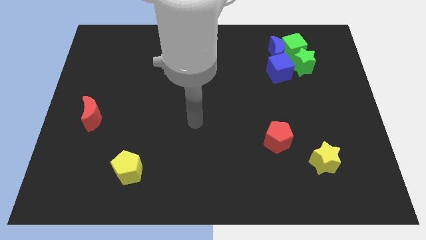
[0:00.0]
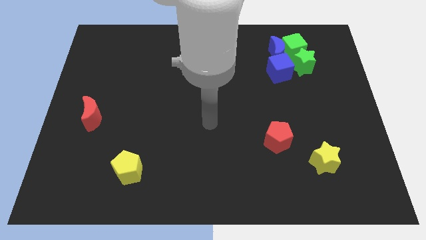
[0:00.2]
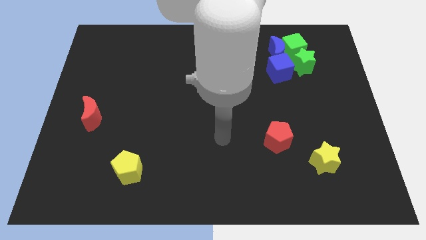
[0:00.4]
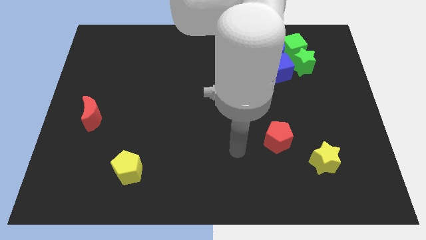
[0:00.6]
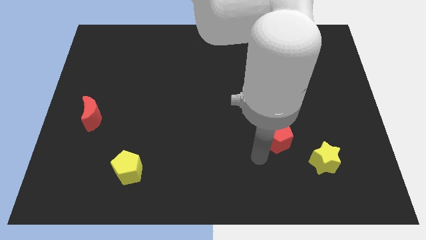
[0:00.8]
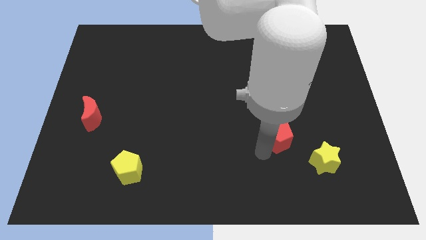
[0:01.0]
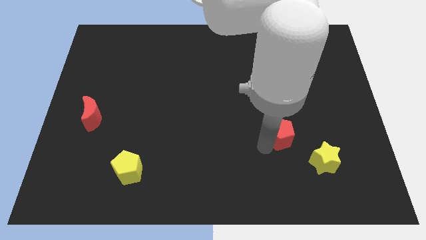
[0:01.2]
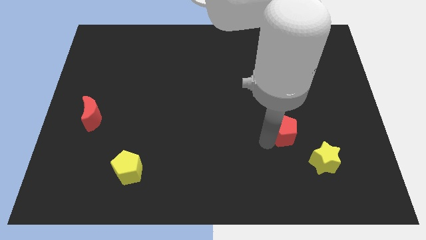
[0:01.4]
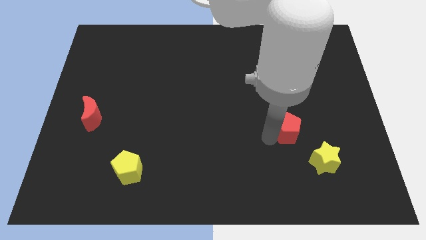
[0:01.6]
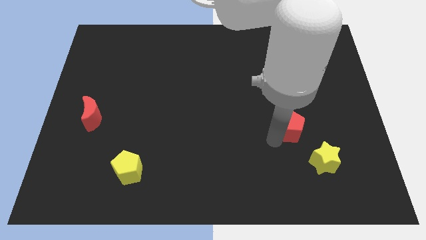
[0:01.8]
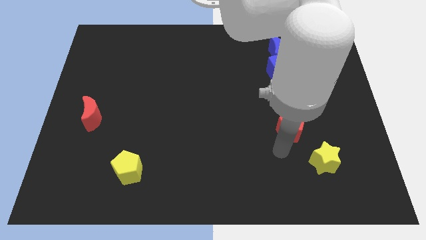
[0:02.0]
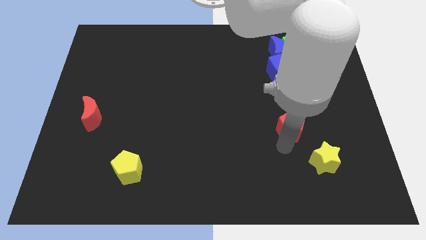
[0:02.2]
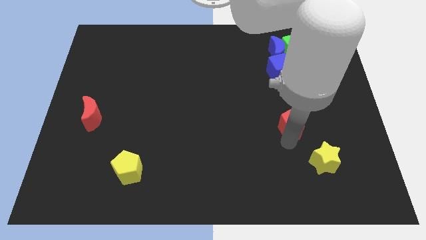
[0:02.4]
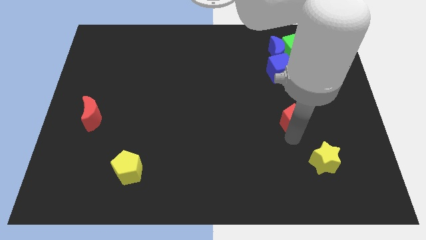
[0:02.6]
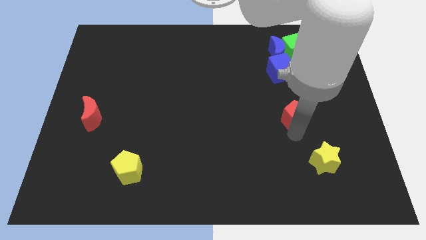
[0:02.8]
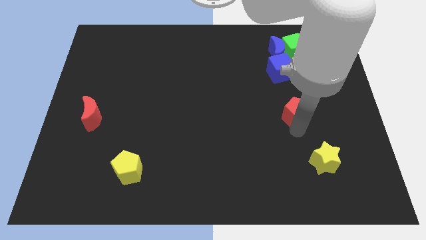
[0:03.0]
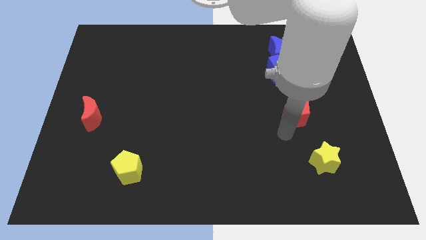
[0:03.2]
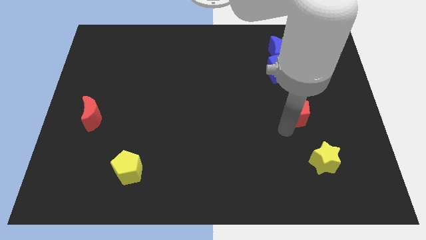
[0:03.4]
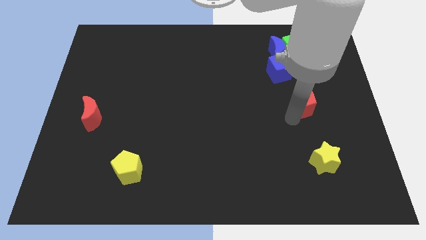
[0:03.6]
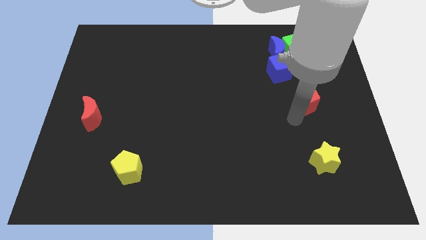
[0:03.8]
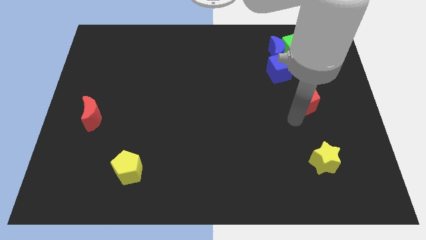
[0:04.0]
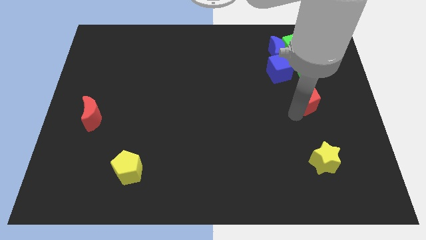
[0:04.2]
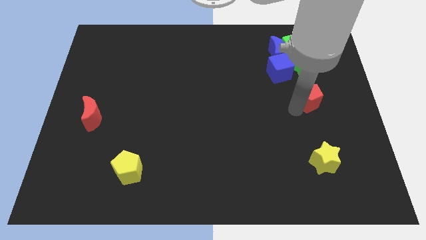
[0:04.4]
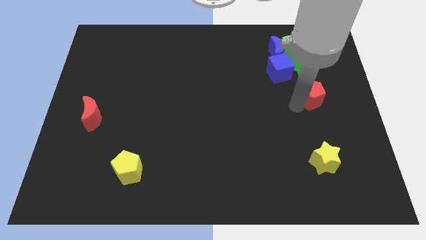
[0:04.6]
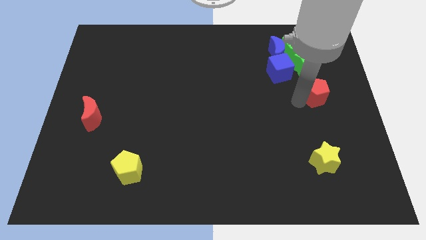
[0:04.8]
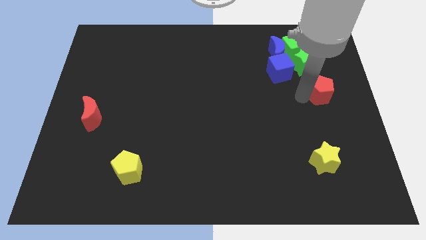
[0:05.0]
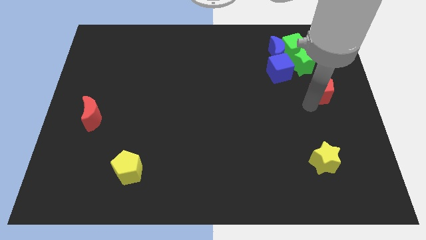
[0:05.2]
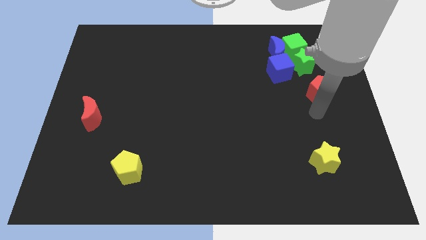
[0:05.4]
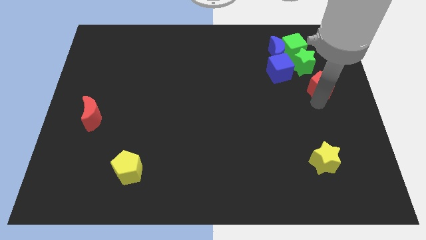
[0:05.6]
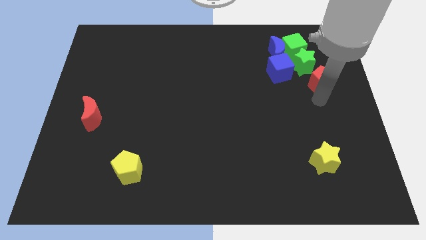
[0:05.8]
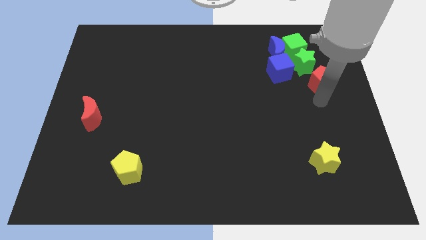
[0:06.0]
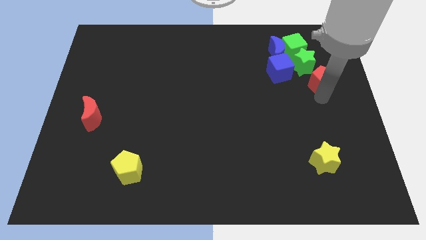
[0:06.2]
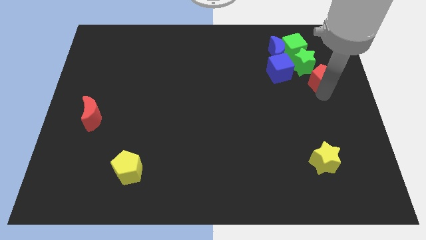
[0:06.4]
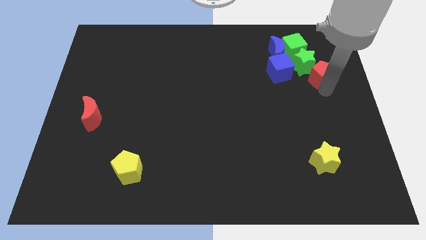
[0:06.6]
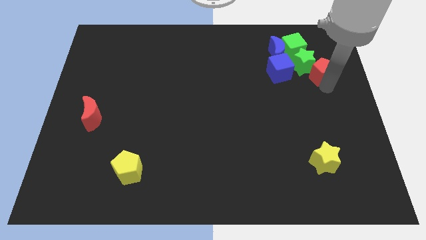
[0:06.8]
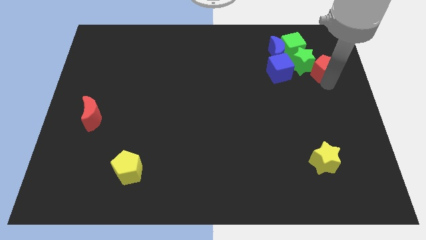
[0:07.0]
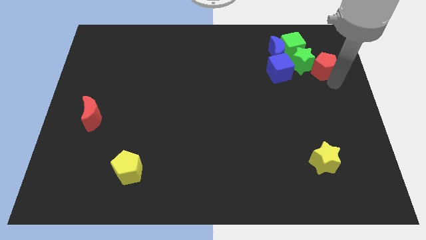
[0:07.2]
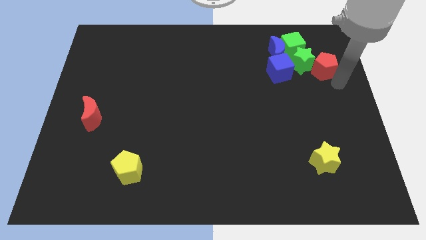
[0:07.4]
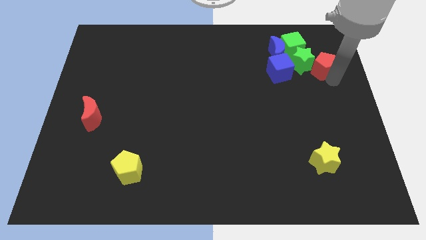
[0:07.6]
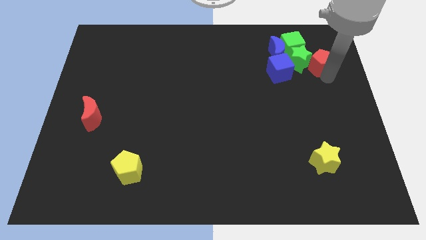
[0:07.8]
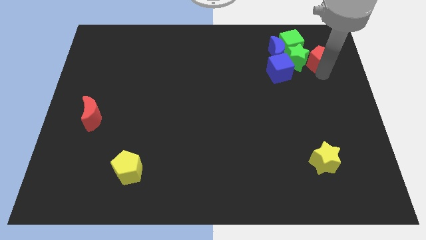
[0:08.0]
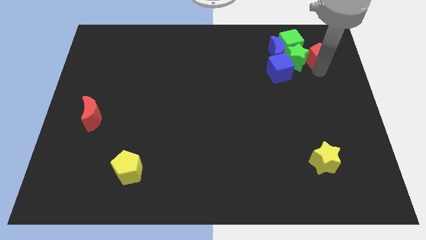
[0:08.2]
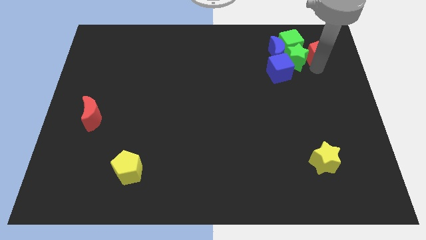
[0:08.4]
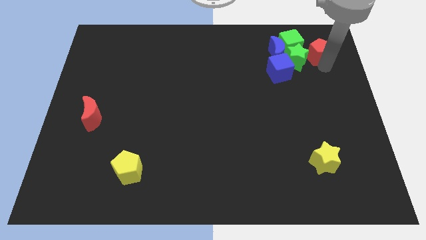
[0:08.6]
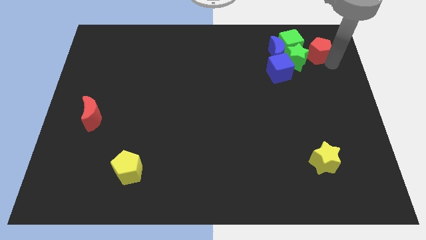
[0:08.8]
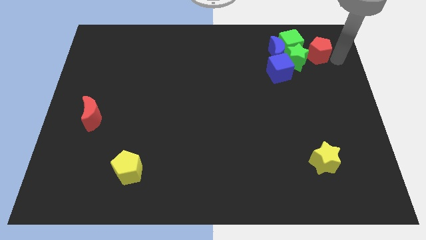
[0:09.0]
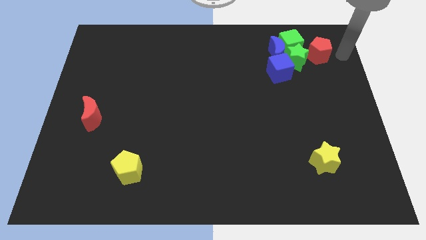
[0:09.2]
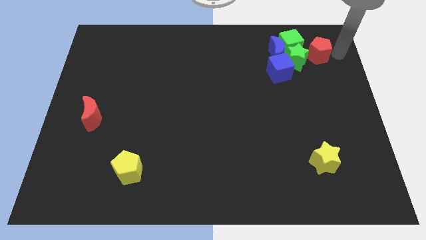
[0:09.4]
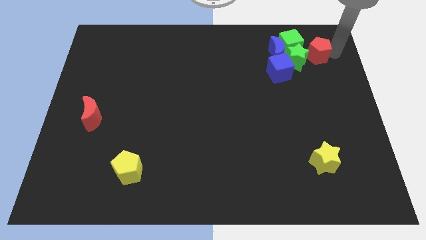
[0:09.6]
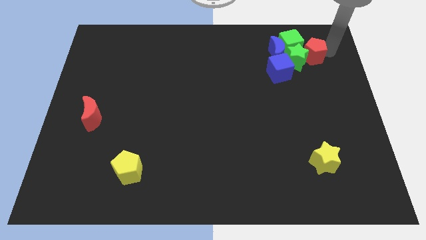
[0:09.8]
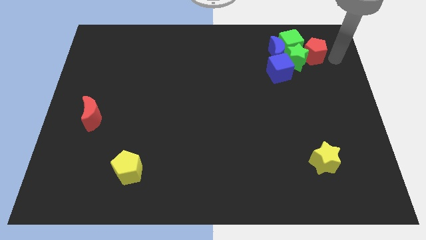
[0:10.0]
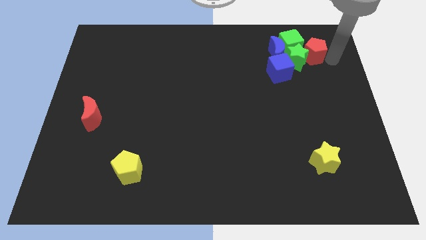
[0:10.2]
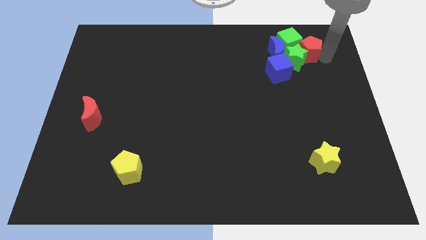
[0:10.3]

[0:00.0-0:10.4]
slide the red pentagon to the green cube

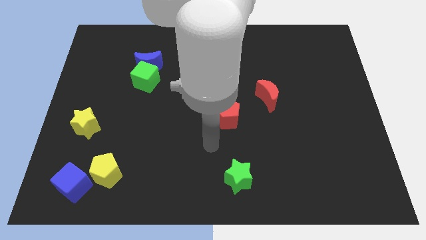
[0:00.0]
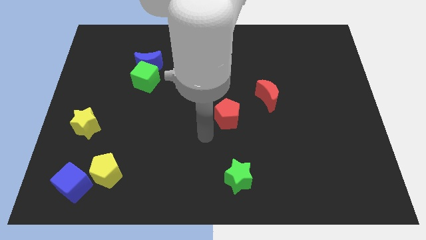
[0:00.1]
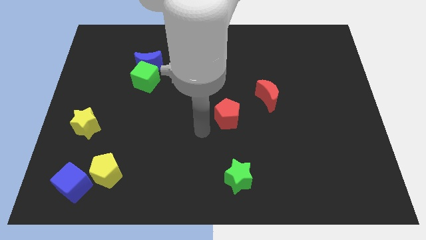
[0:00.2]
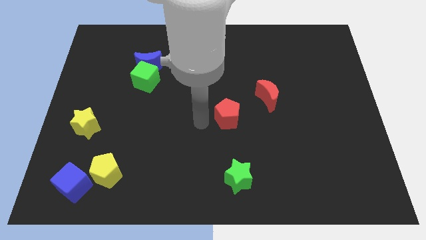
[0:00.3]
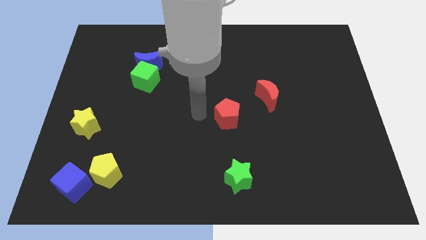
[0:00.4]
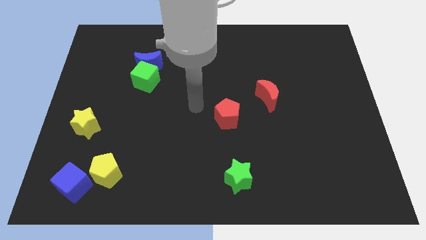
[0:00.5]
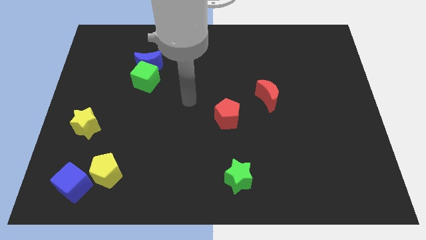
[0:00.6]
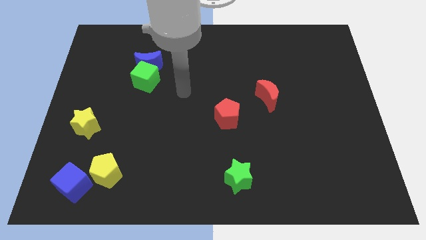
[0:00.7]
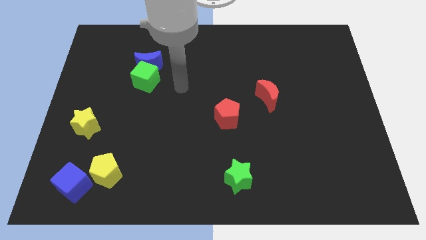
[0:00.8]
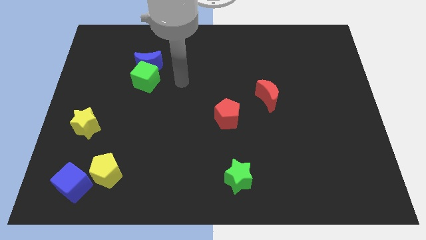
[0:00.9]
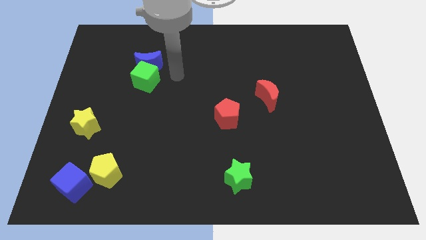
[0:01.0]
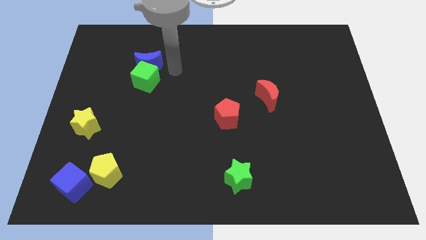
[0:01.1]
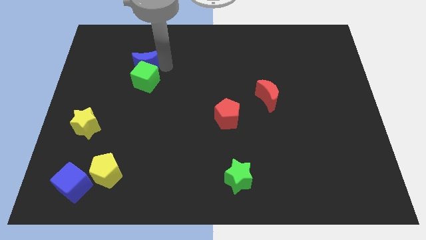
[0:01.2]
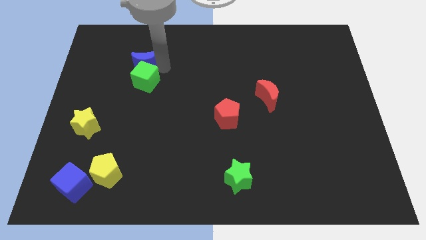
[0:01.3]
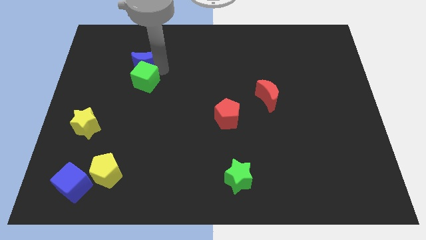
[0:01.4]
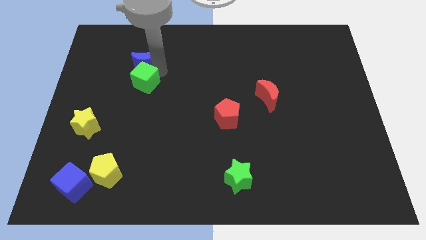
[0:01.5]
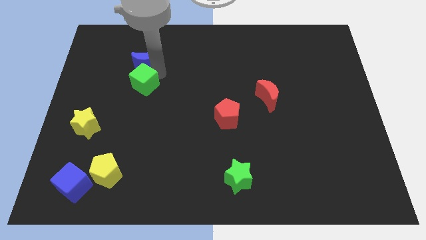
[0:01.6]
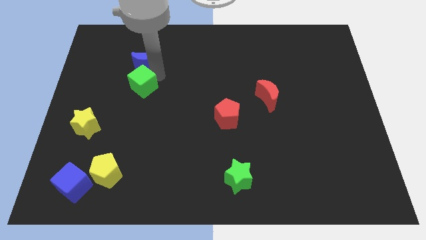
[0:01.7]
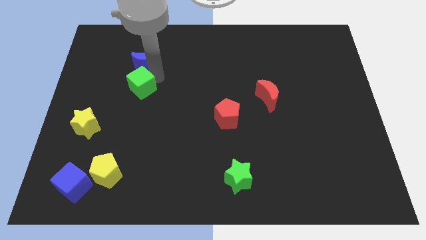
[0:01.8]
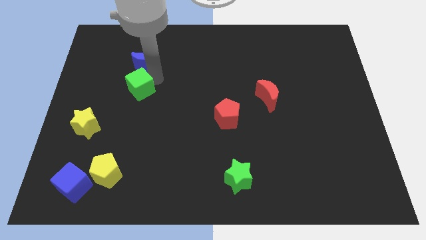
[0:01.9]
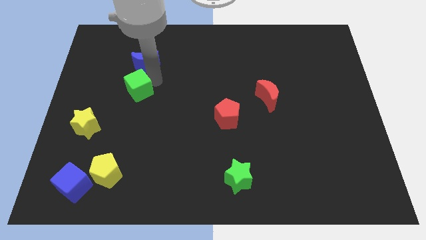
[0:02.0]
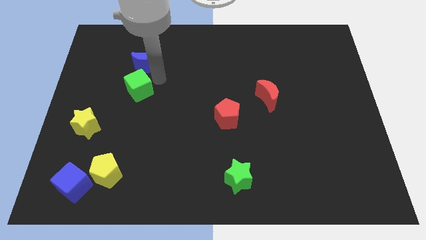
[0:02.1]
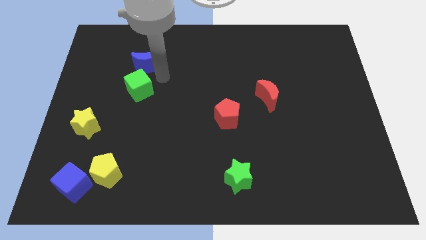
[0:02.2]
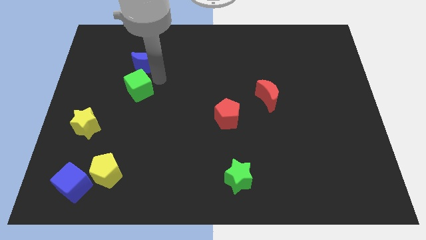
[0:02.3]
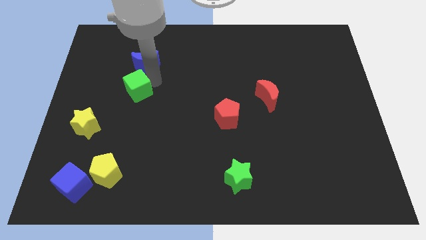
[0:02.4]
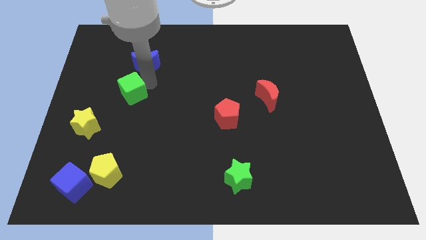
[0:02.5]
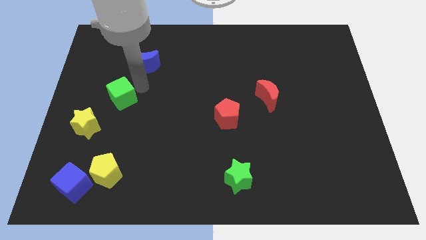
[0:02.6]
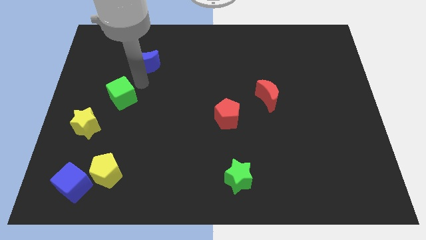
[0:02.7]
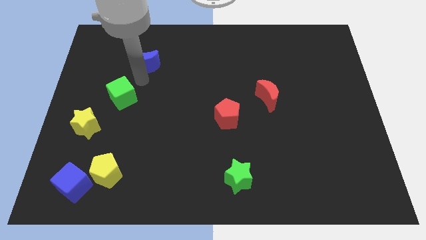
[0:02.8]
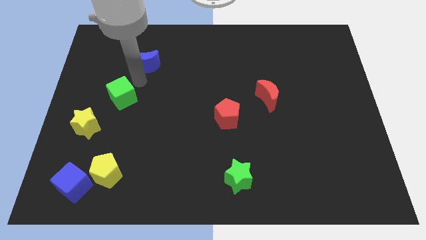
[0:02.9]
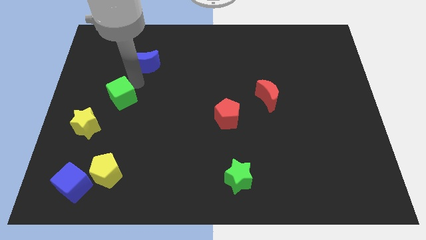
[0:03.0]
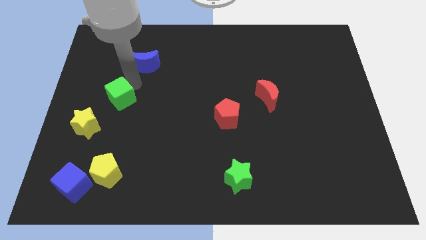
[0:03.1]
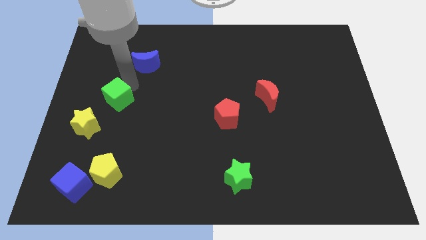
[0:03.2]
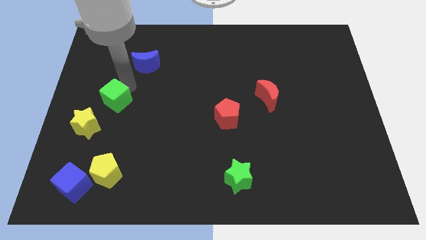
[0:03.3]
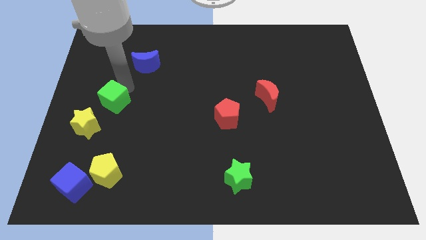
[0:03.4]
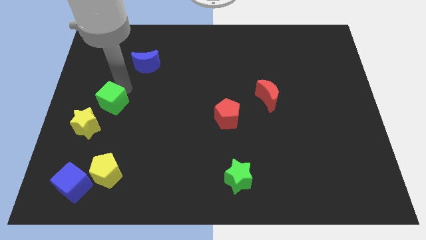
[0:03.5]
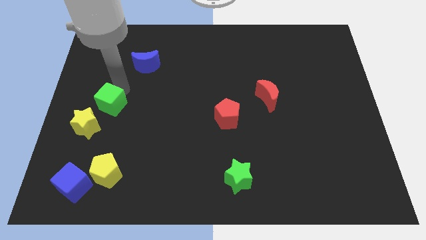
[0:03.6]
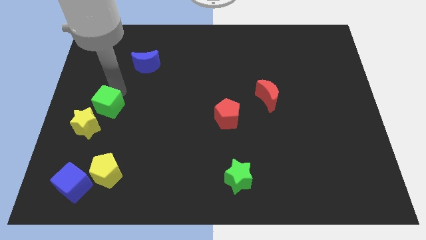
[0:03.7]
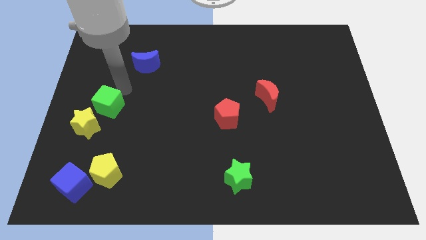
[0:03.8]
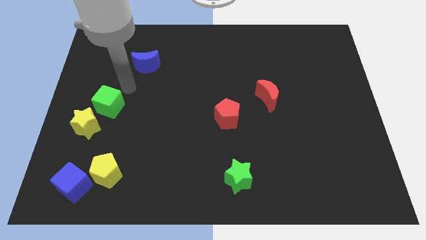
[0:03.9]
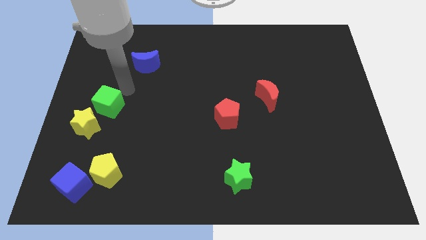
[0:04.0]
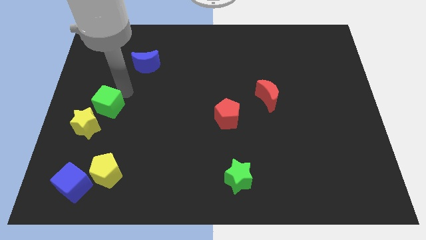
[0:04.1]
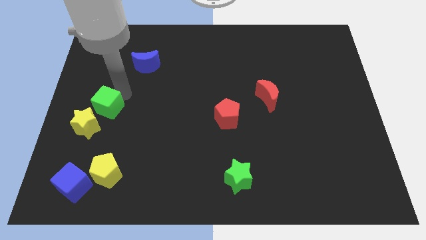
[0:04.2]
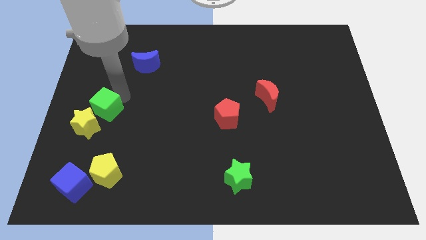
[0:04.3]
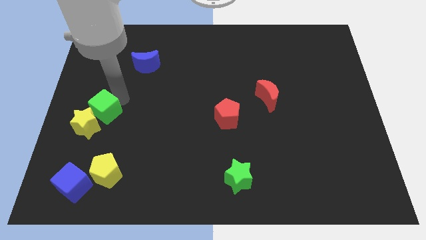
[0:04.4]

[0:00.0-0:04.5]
push the green cube close to the yellow star
